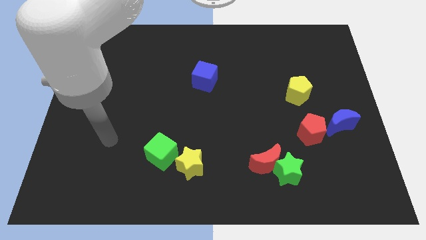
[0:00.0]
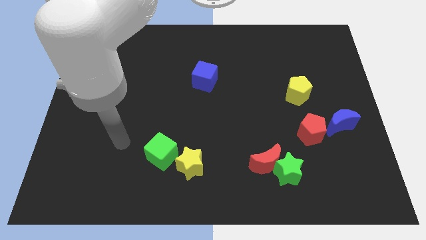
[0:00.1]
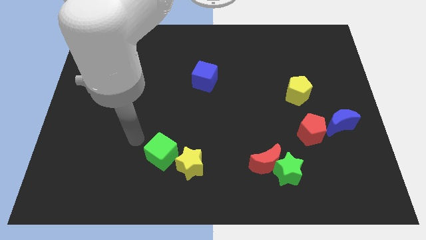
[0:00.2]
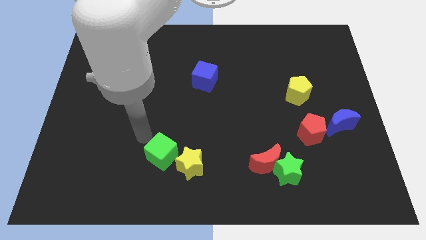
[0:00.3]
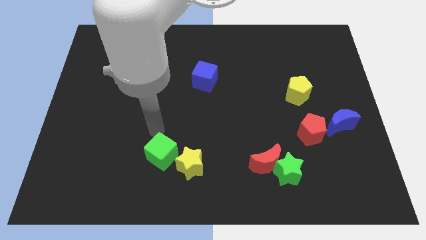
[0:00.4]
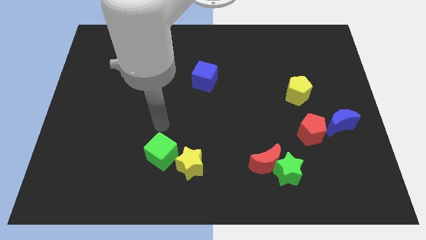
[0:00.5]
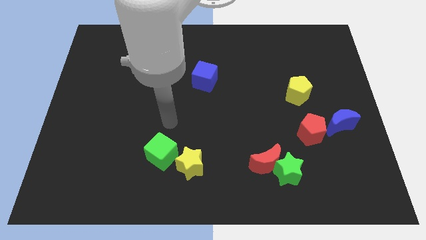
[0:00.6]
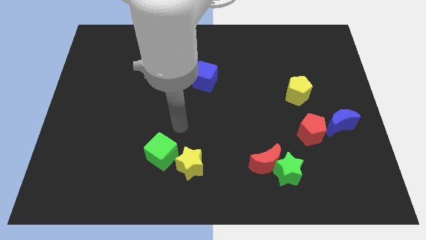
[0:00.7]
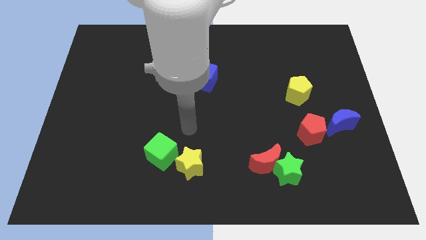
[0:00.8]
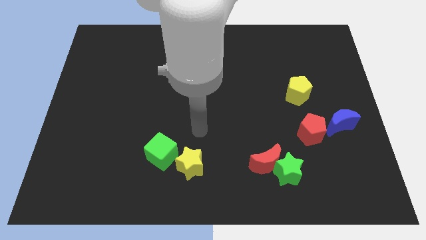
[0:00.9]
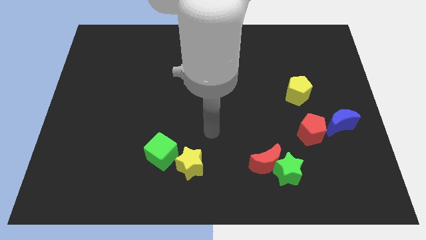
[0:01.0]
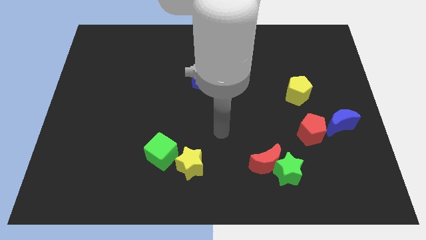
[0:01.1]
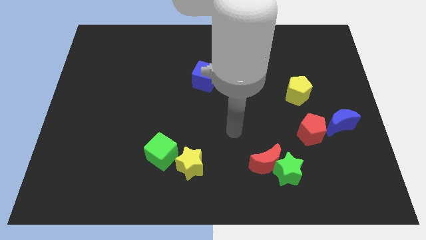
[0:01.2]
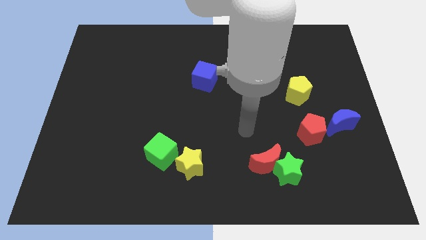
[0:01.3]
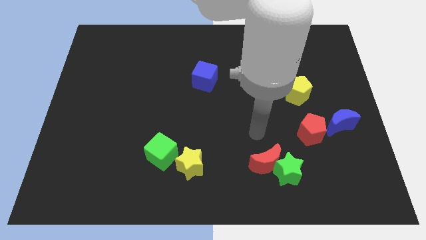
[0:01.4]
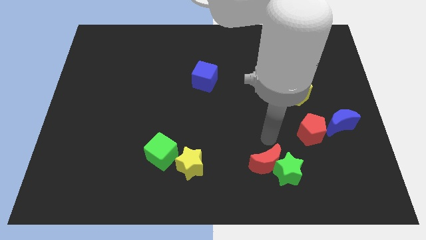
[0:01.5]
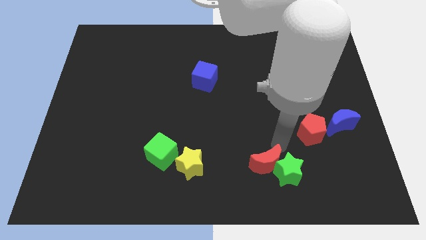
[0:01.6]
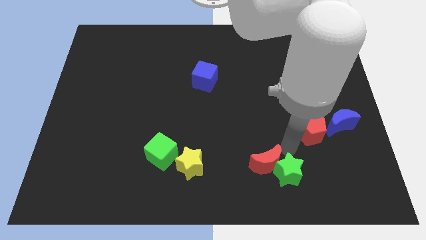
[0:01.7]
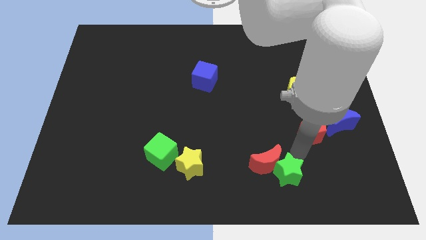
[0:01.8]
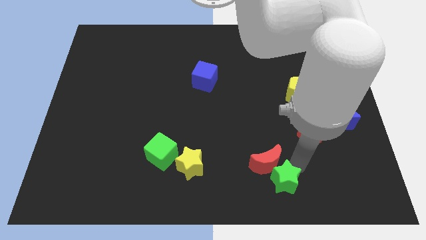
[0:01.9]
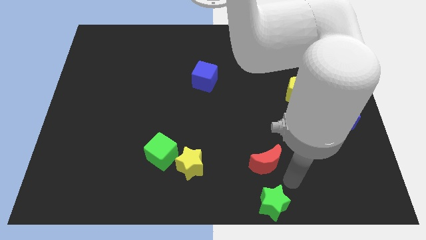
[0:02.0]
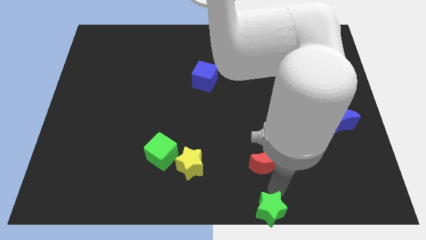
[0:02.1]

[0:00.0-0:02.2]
separate the red moon from the green star

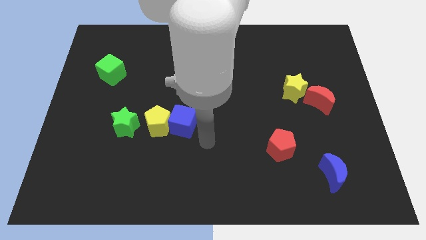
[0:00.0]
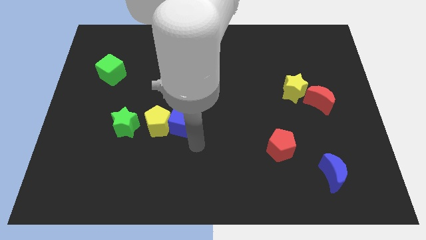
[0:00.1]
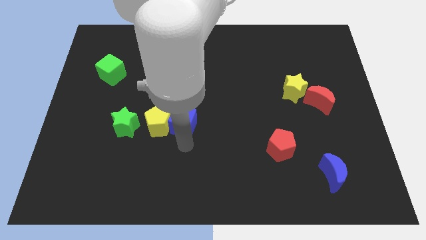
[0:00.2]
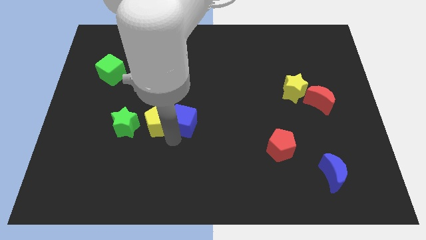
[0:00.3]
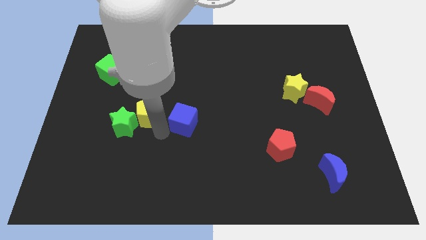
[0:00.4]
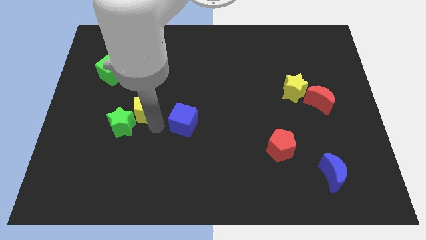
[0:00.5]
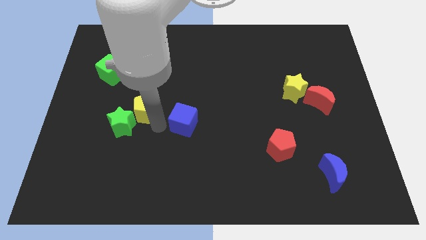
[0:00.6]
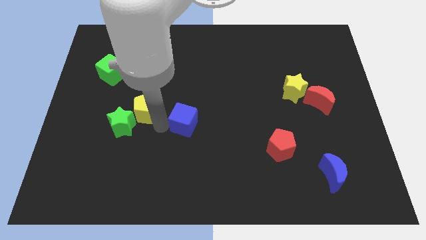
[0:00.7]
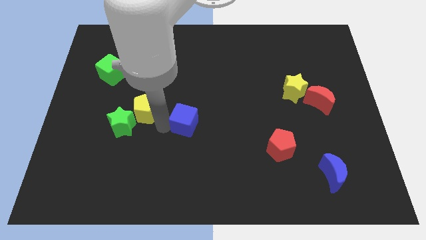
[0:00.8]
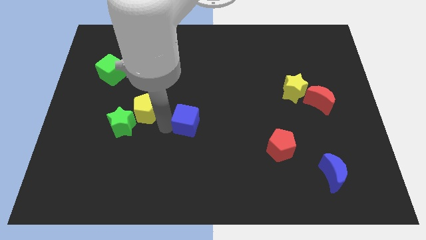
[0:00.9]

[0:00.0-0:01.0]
separate the blue cube from the yellow pentagon

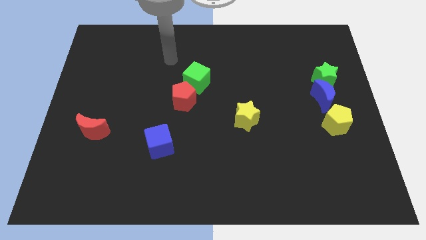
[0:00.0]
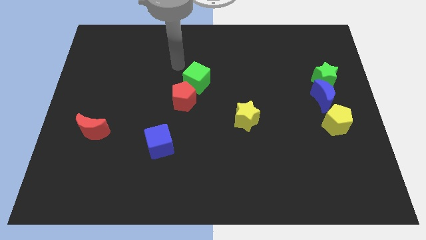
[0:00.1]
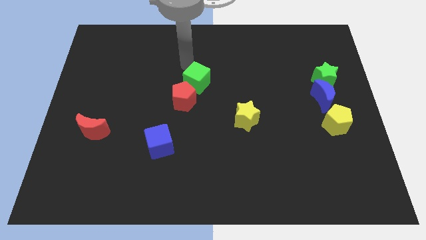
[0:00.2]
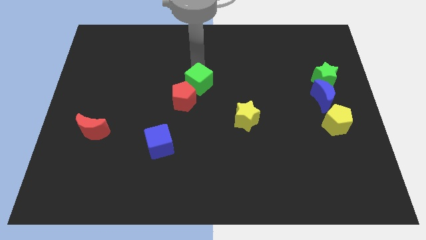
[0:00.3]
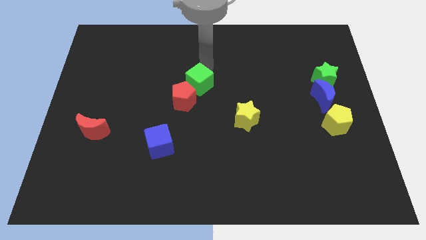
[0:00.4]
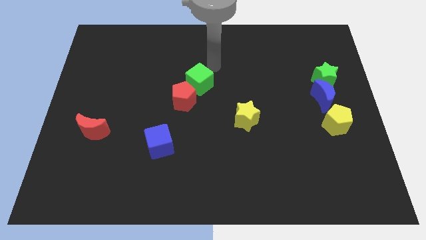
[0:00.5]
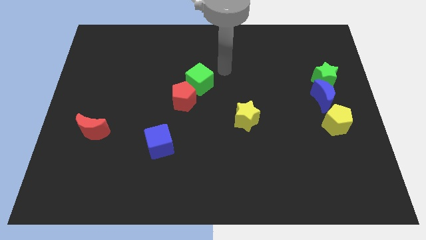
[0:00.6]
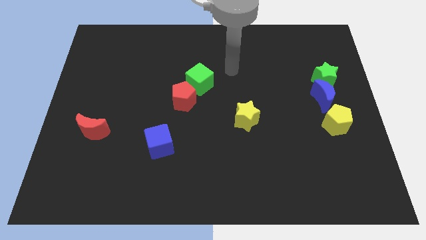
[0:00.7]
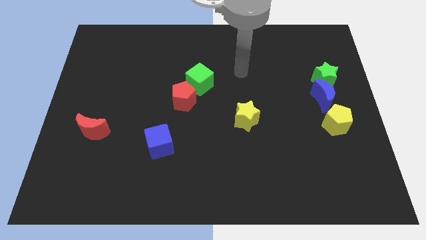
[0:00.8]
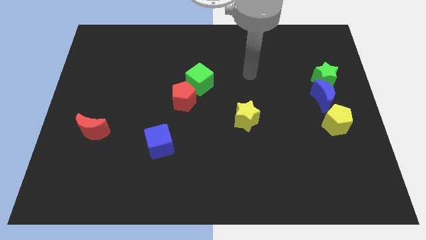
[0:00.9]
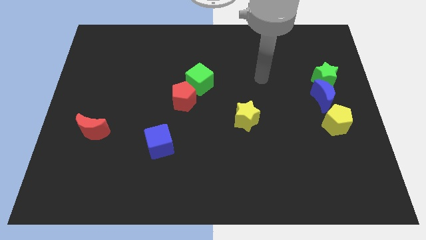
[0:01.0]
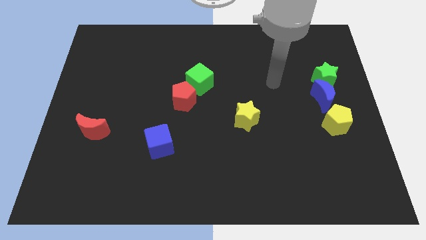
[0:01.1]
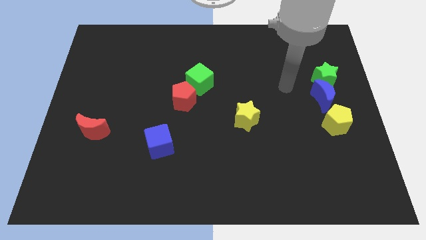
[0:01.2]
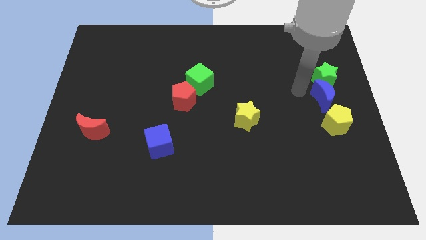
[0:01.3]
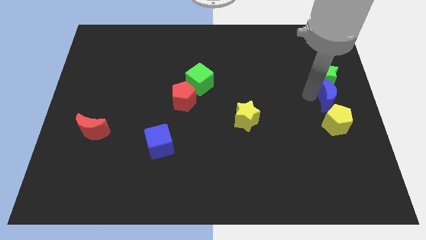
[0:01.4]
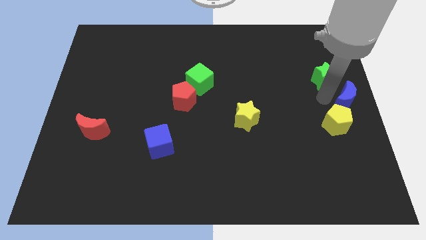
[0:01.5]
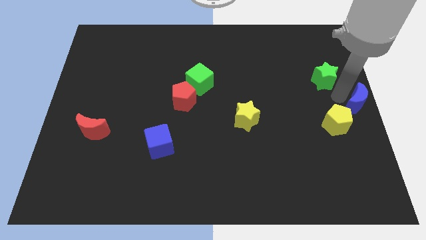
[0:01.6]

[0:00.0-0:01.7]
pull the green star apart from the blue moon

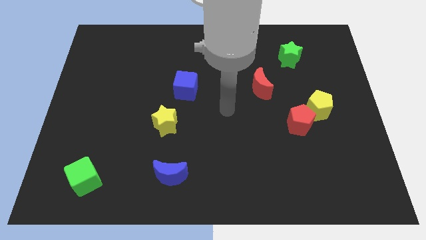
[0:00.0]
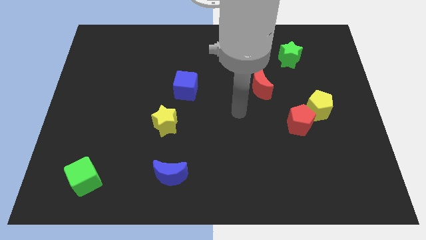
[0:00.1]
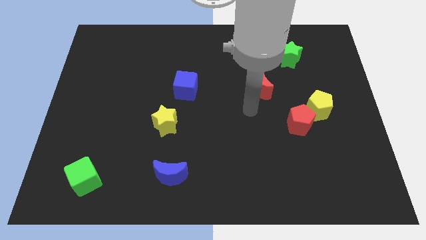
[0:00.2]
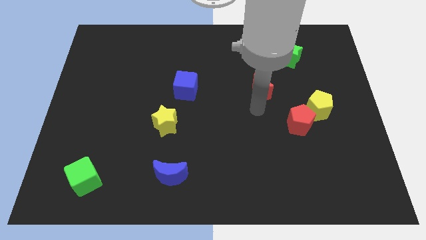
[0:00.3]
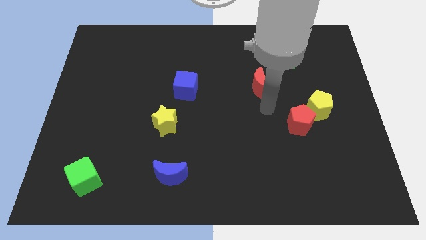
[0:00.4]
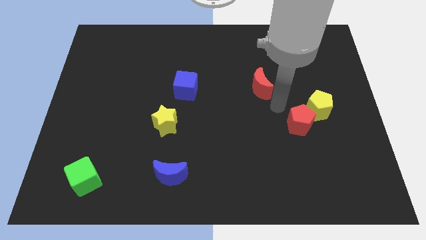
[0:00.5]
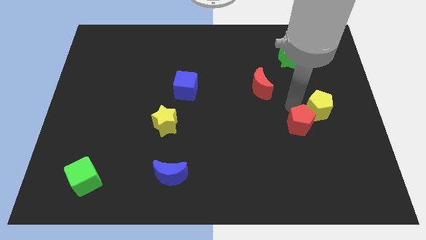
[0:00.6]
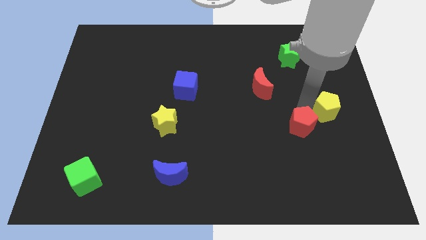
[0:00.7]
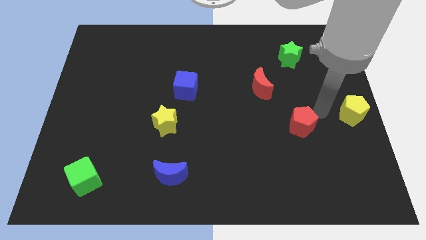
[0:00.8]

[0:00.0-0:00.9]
pull the red pentagon apart from the yellow pentagon

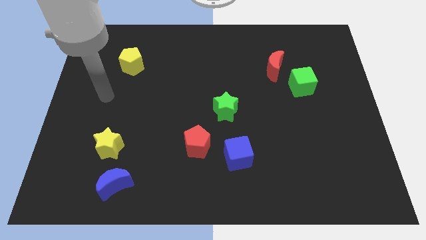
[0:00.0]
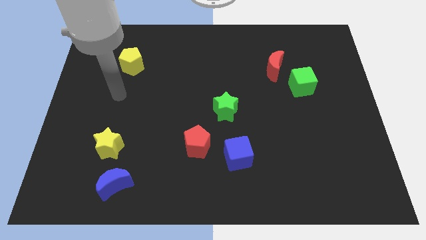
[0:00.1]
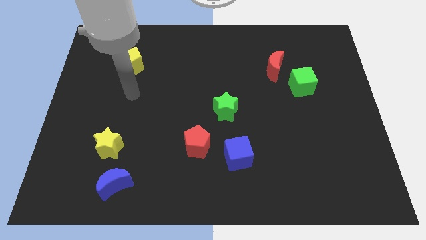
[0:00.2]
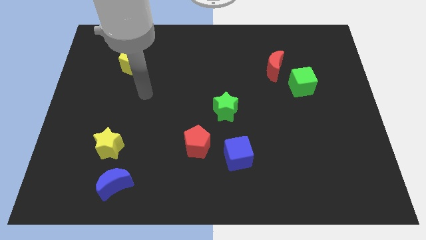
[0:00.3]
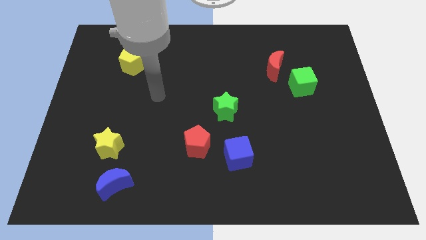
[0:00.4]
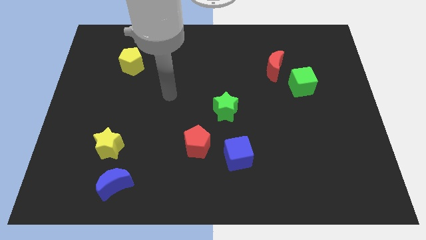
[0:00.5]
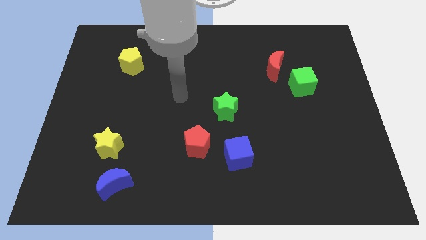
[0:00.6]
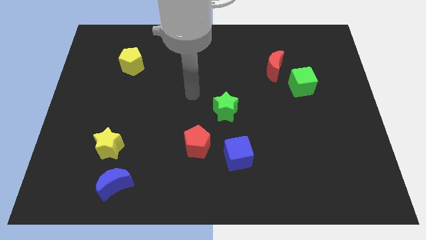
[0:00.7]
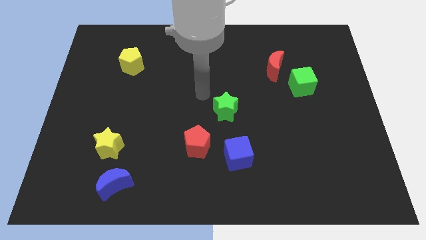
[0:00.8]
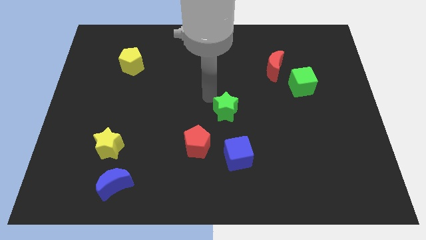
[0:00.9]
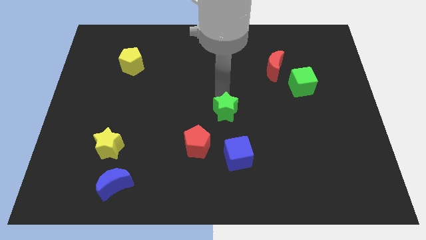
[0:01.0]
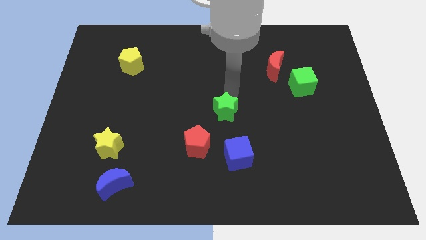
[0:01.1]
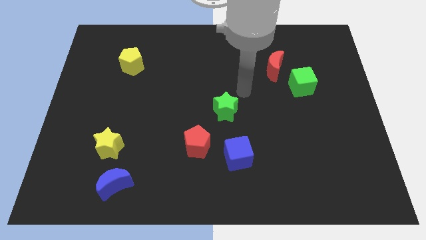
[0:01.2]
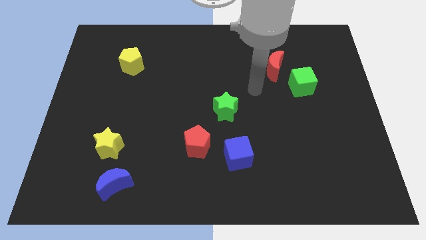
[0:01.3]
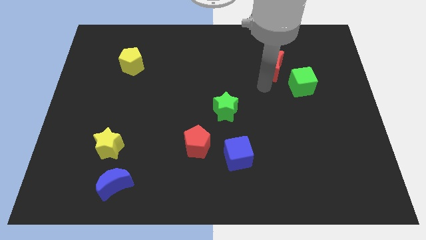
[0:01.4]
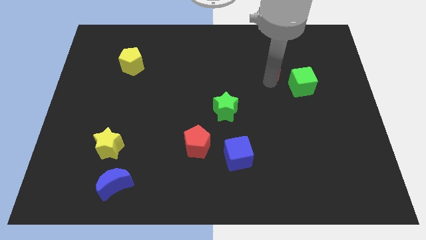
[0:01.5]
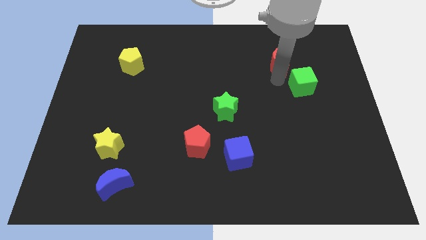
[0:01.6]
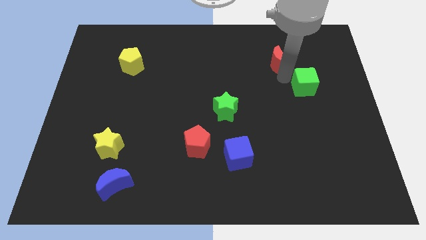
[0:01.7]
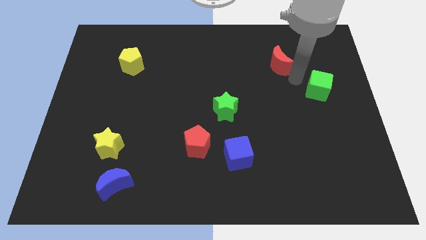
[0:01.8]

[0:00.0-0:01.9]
separate the red moon from the green cube

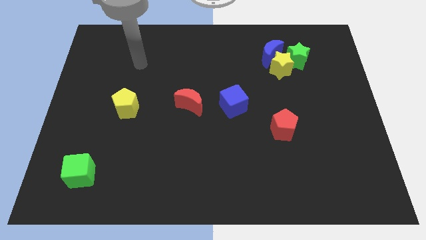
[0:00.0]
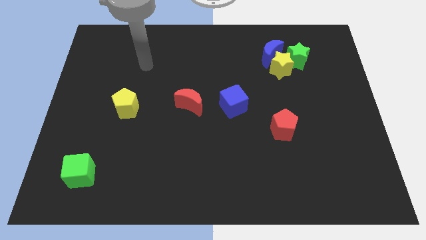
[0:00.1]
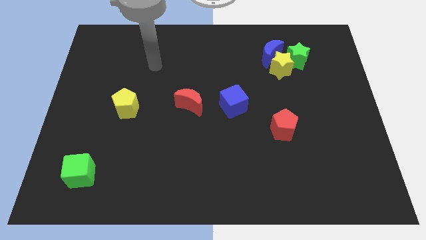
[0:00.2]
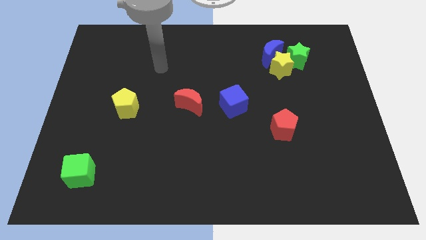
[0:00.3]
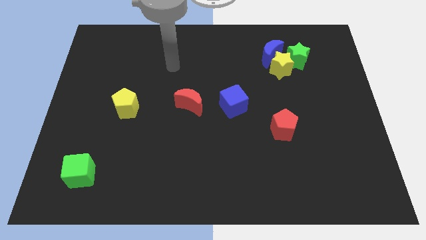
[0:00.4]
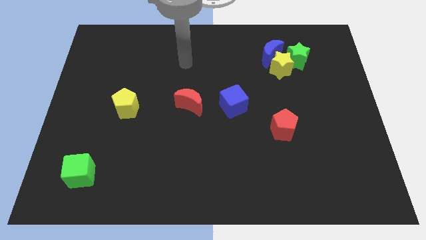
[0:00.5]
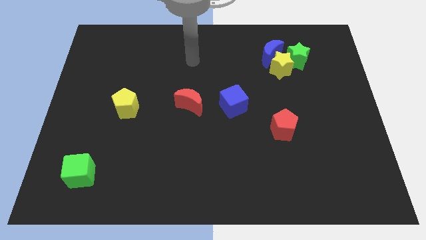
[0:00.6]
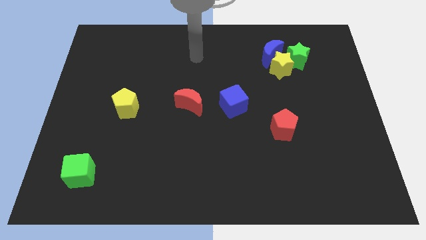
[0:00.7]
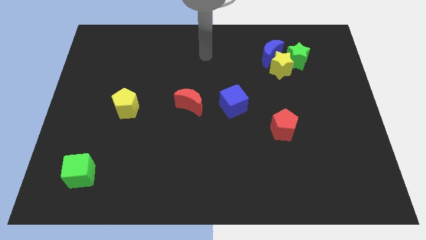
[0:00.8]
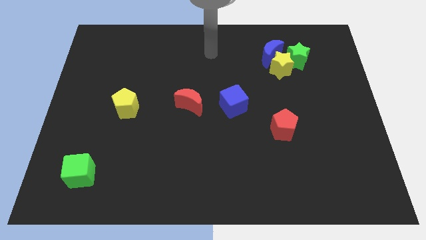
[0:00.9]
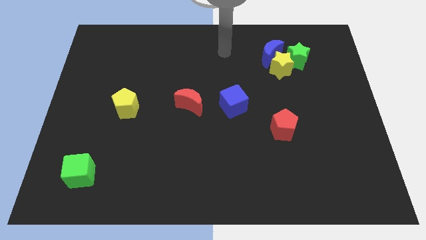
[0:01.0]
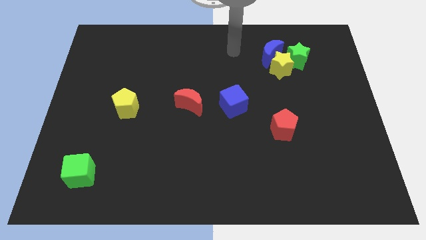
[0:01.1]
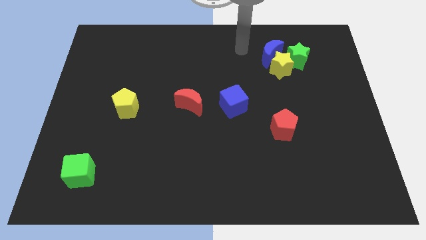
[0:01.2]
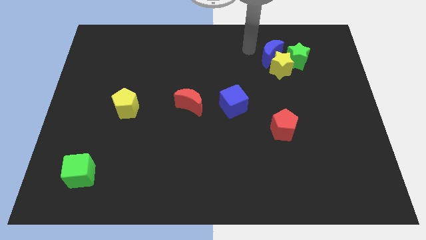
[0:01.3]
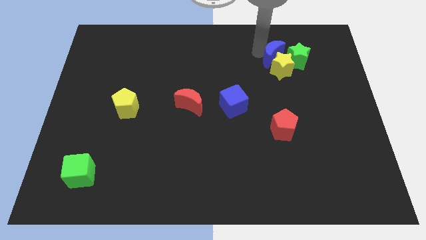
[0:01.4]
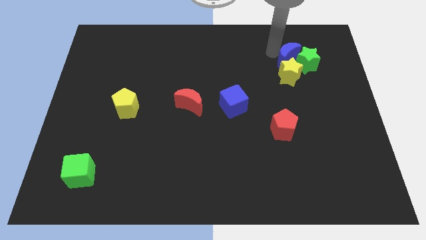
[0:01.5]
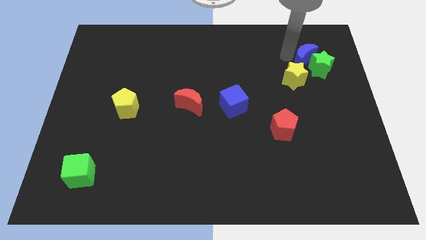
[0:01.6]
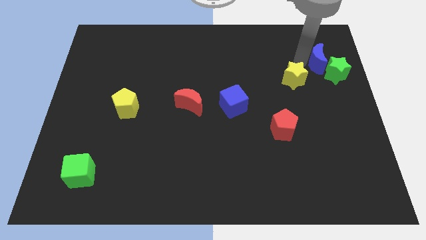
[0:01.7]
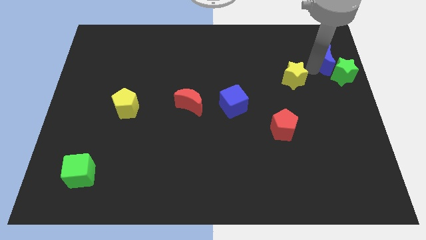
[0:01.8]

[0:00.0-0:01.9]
pull the yellow star apart from the blue moon and green star
